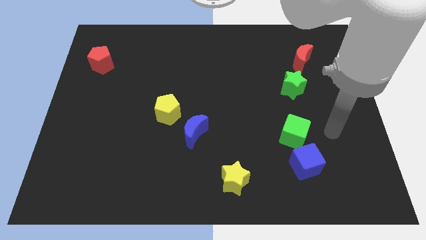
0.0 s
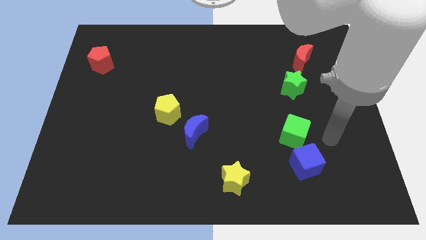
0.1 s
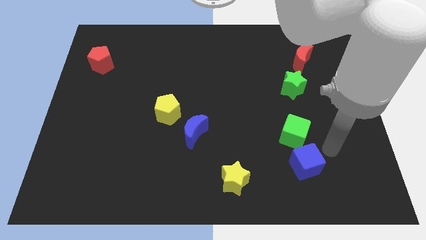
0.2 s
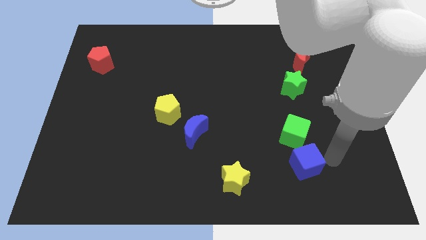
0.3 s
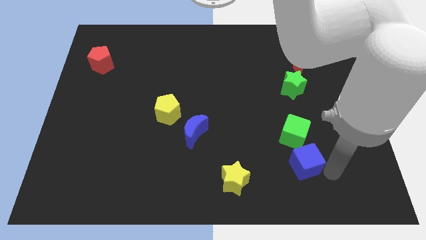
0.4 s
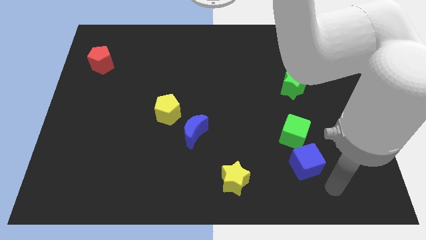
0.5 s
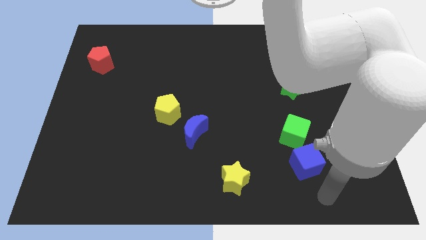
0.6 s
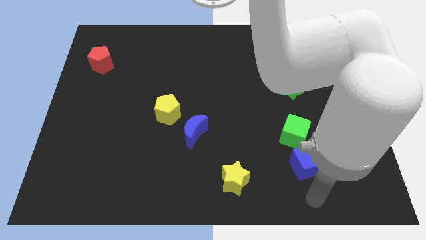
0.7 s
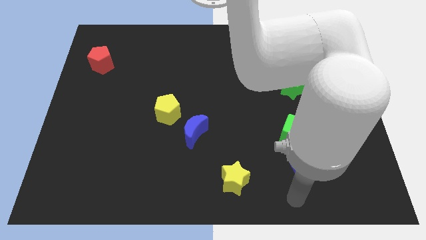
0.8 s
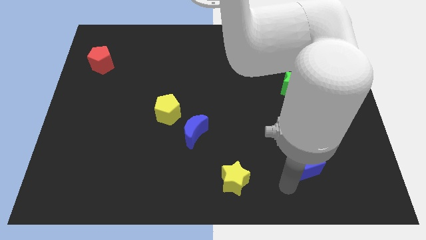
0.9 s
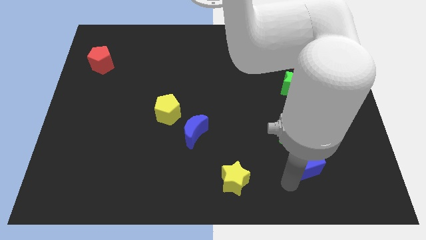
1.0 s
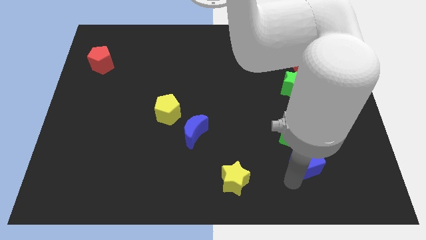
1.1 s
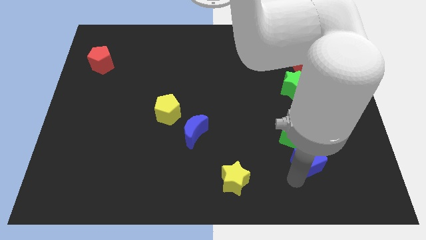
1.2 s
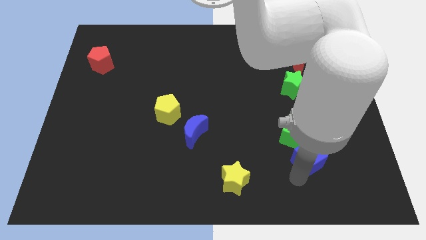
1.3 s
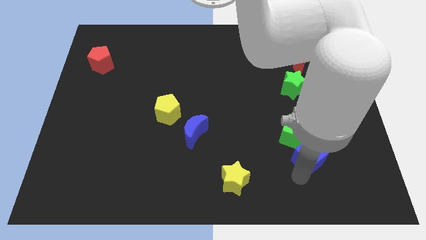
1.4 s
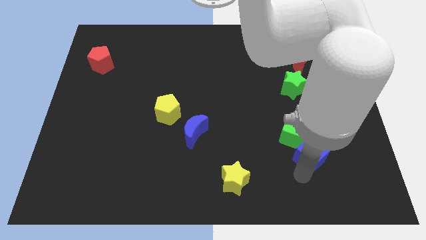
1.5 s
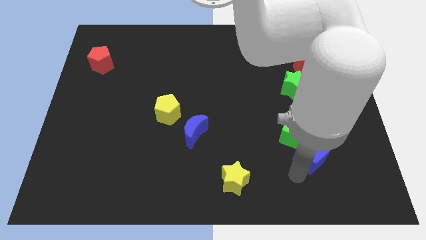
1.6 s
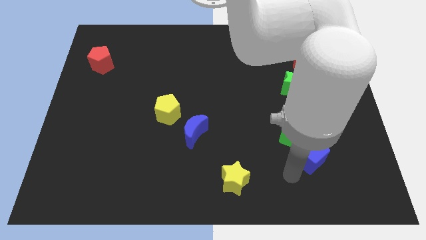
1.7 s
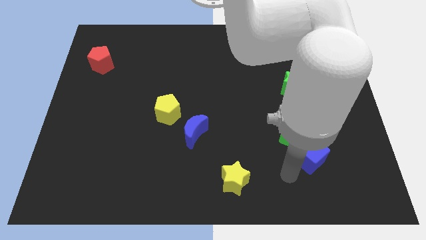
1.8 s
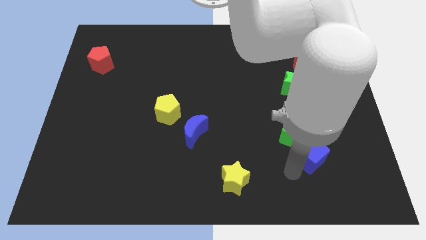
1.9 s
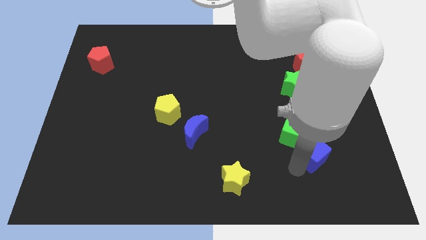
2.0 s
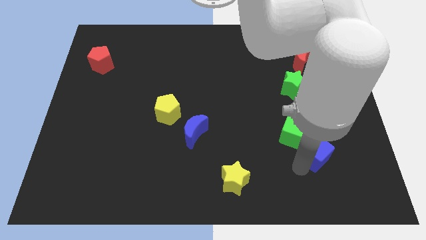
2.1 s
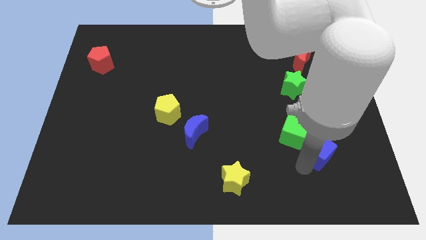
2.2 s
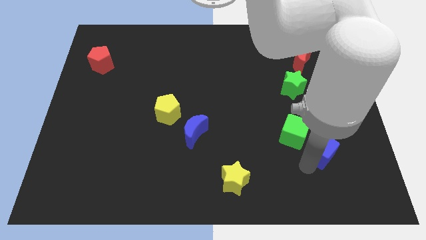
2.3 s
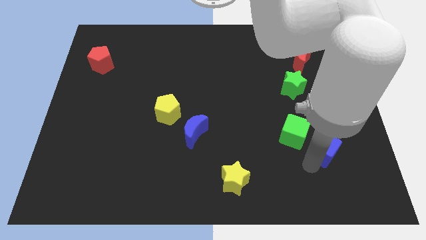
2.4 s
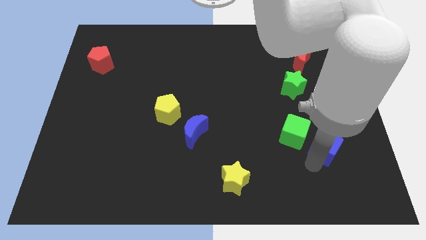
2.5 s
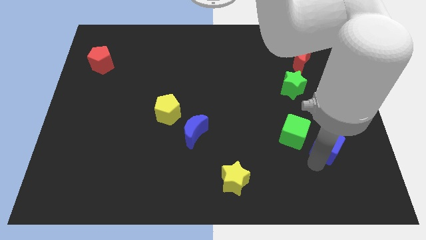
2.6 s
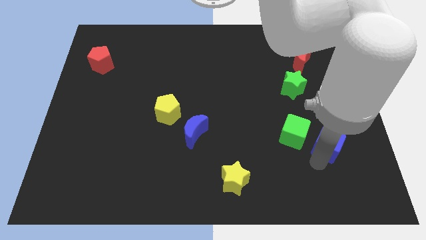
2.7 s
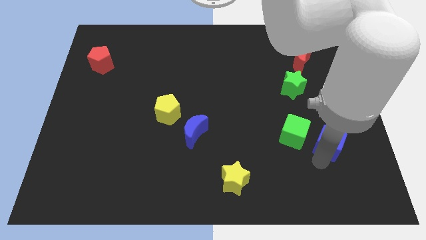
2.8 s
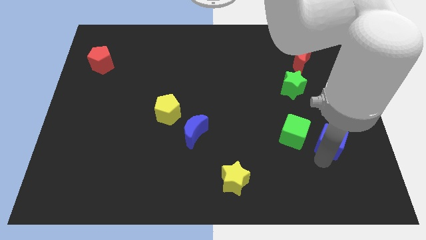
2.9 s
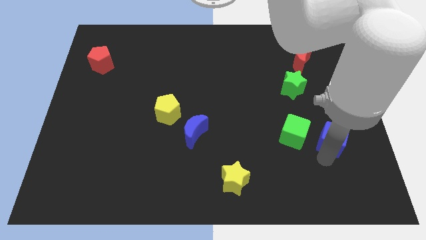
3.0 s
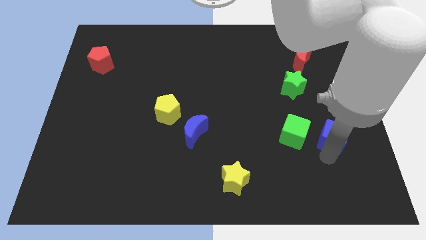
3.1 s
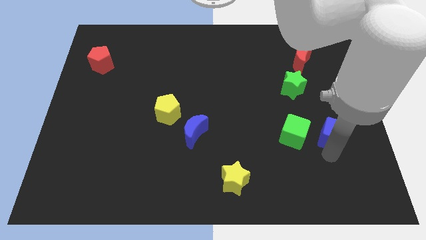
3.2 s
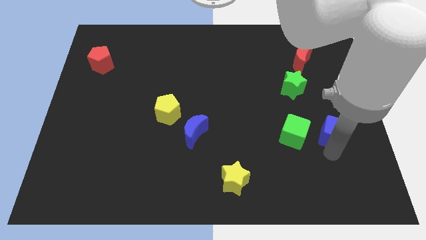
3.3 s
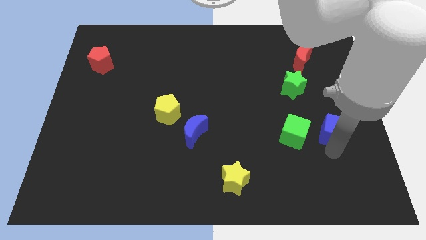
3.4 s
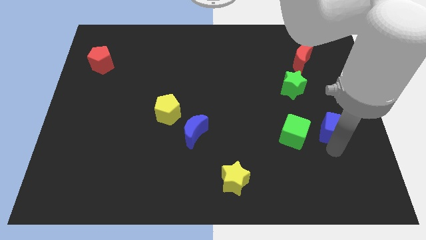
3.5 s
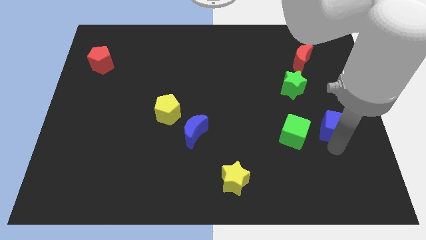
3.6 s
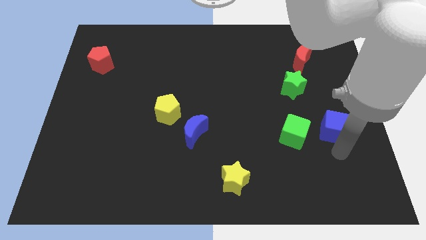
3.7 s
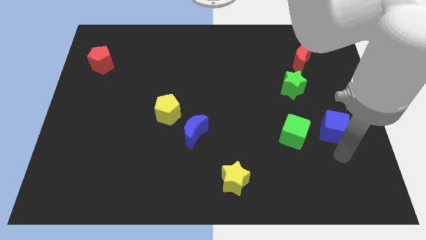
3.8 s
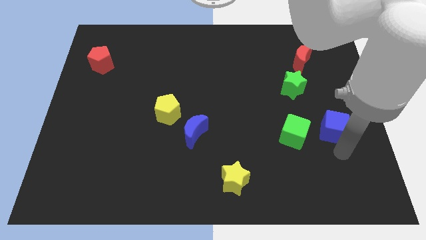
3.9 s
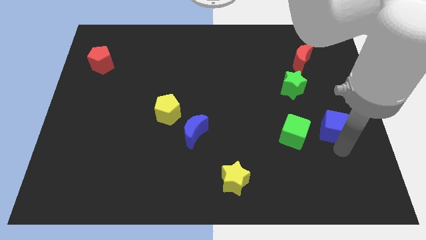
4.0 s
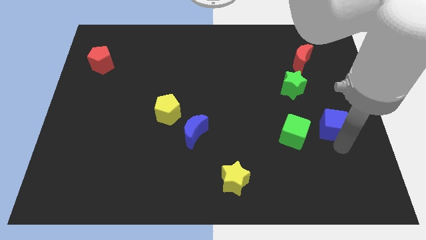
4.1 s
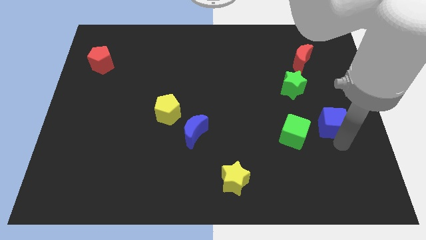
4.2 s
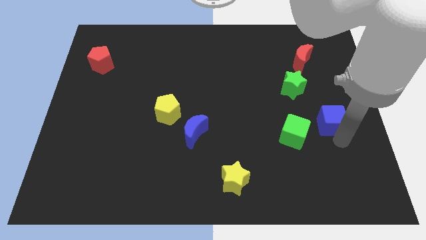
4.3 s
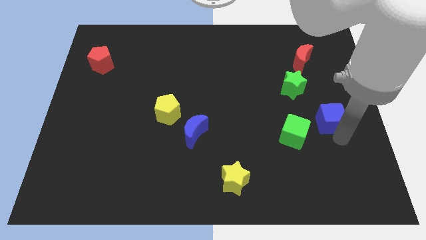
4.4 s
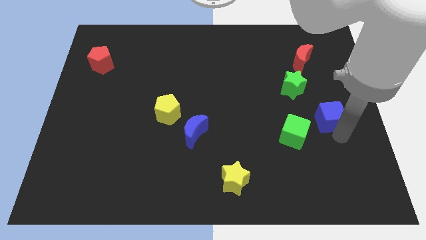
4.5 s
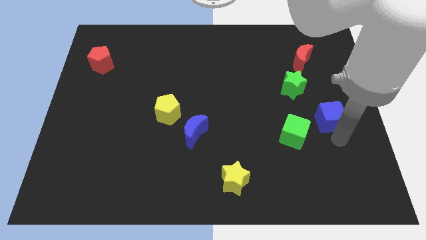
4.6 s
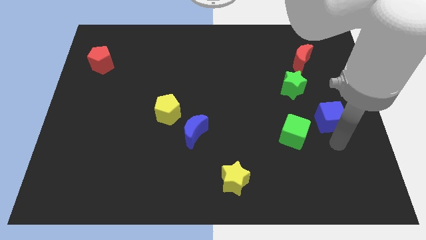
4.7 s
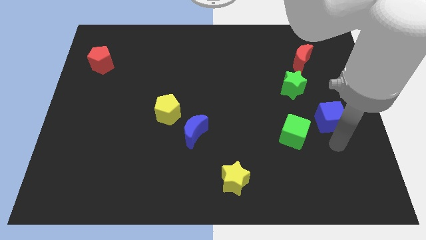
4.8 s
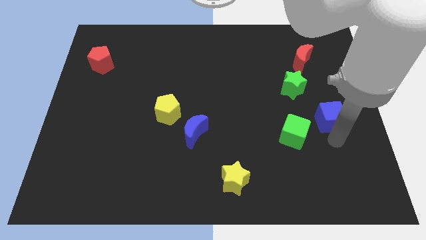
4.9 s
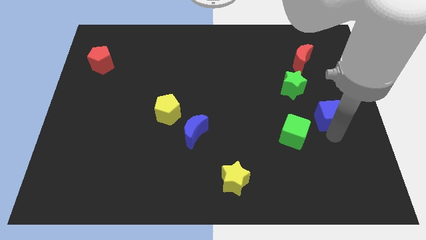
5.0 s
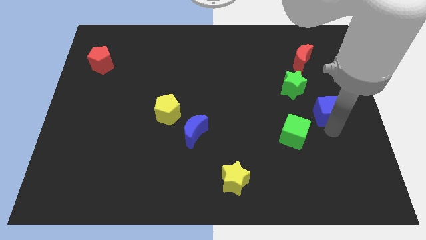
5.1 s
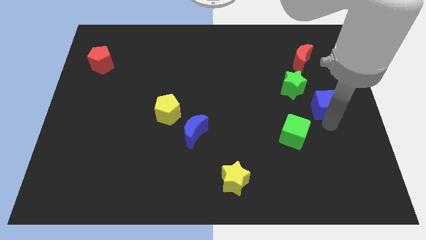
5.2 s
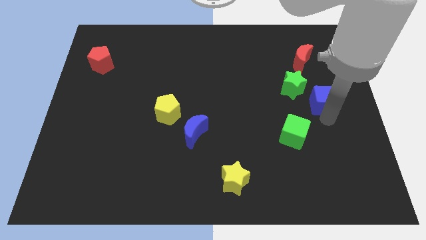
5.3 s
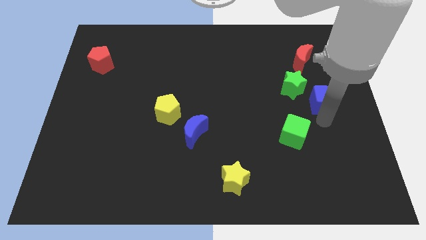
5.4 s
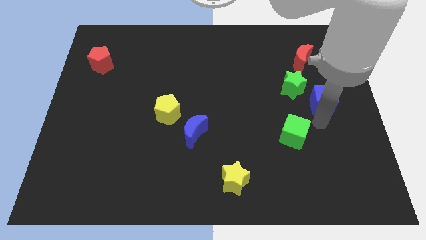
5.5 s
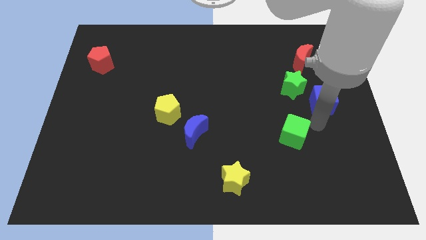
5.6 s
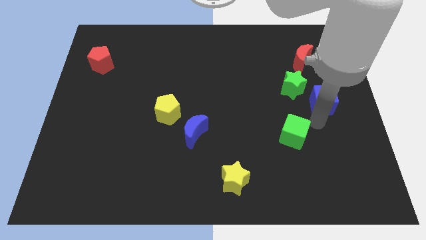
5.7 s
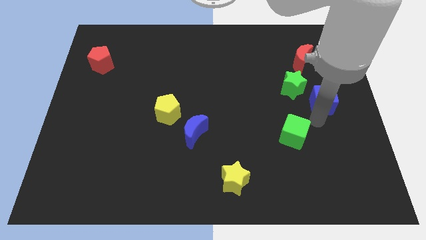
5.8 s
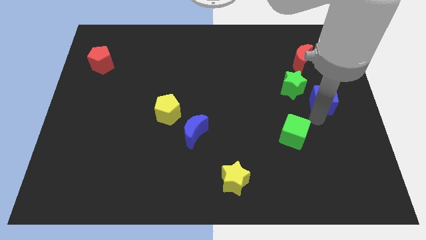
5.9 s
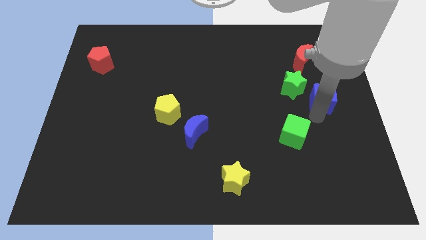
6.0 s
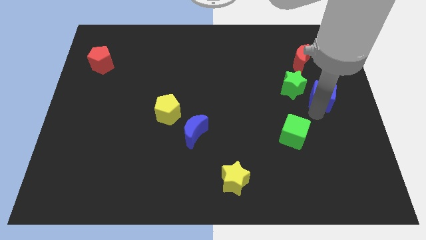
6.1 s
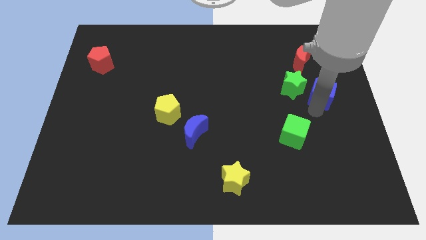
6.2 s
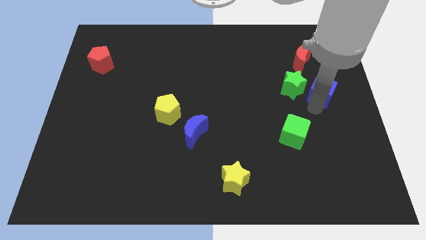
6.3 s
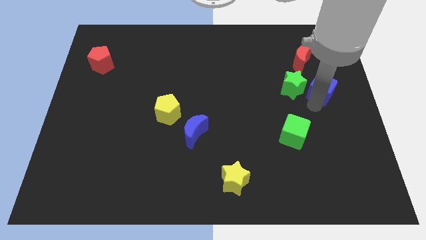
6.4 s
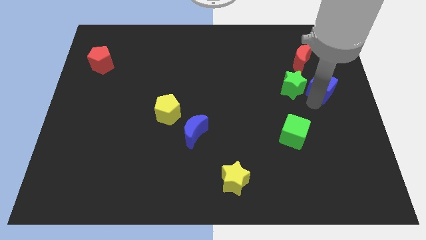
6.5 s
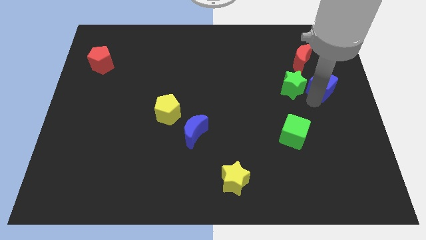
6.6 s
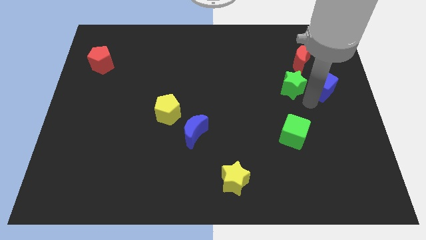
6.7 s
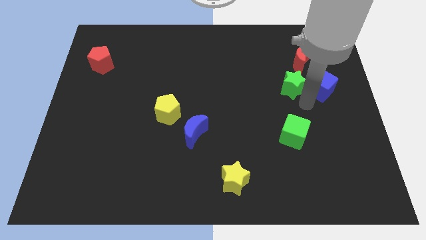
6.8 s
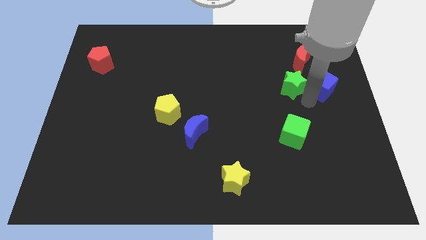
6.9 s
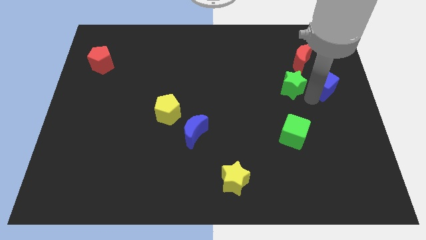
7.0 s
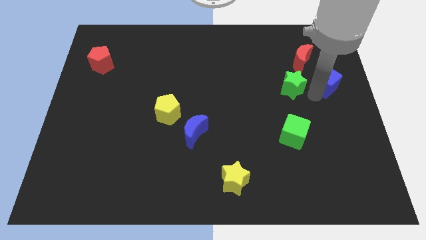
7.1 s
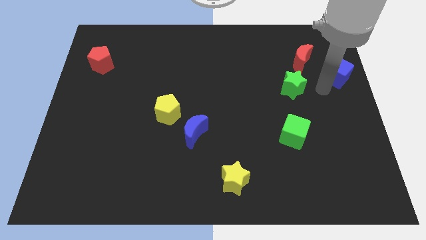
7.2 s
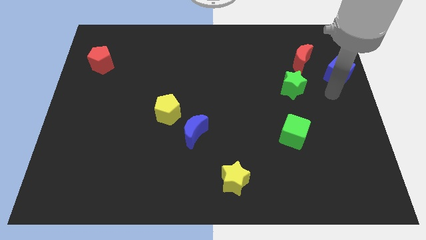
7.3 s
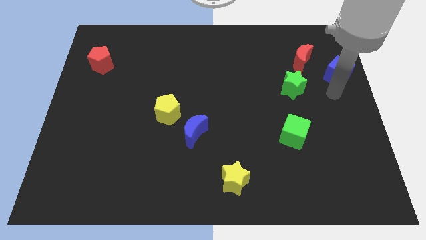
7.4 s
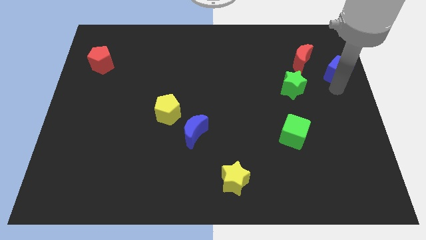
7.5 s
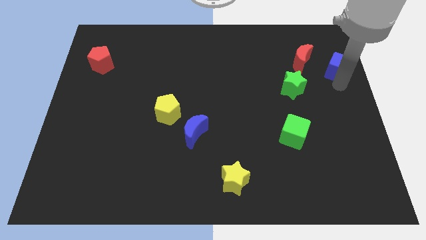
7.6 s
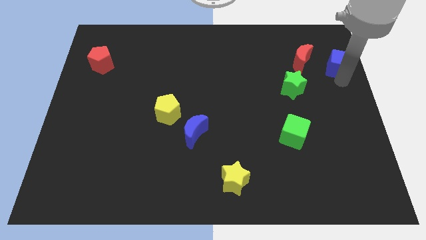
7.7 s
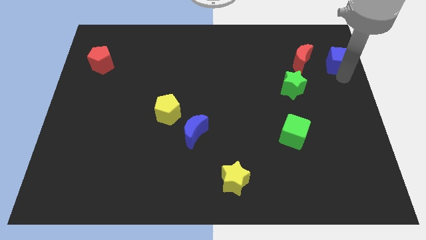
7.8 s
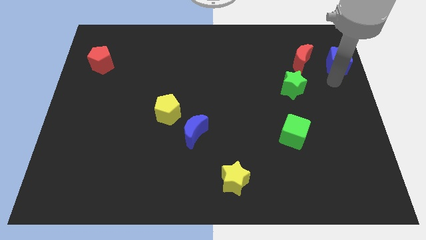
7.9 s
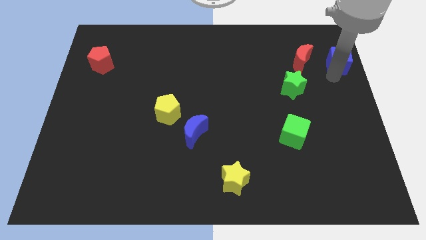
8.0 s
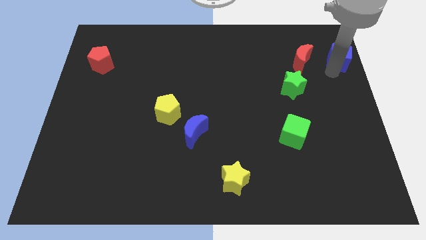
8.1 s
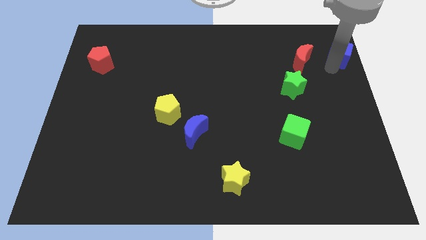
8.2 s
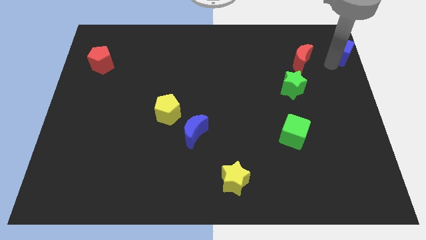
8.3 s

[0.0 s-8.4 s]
push the blue cube to the top right of the board
